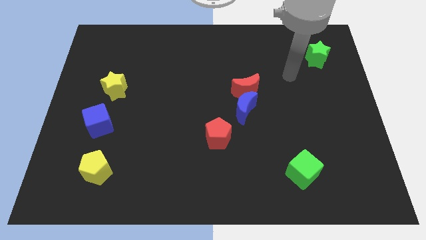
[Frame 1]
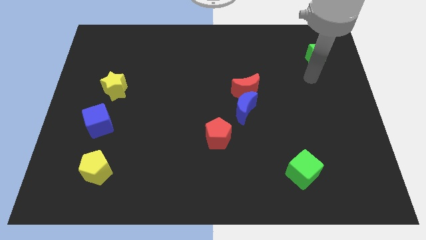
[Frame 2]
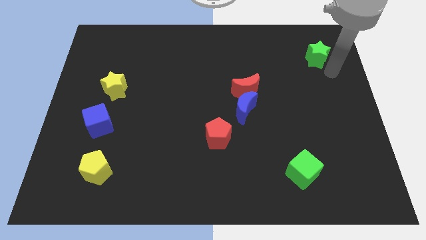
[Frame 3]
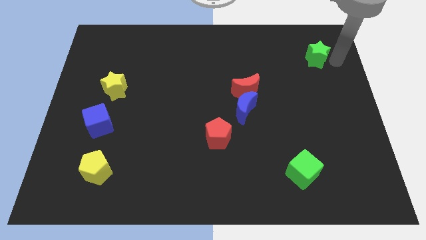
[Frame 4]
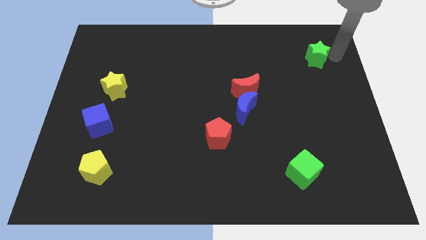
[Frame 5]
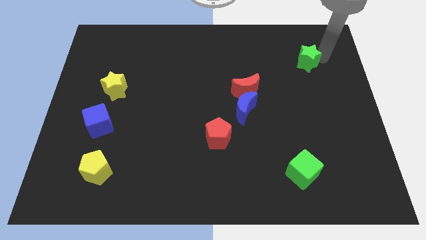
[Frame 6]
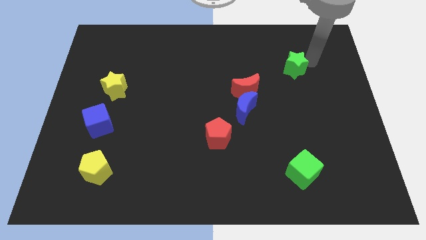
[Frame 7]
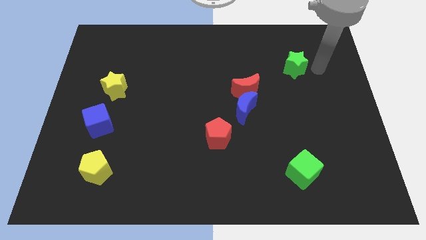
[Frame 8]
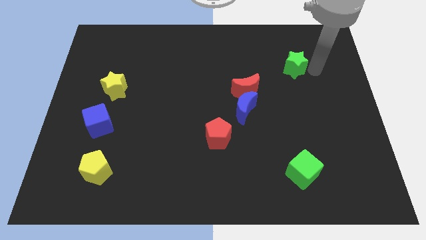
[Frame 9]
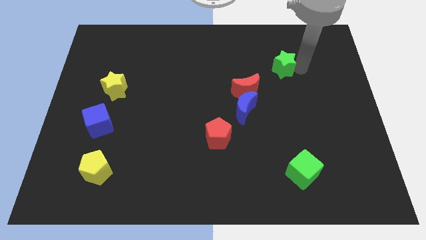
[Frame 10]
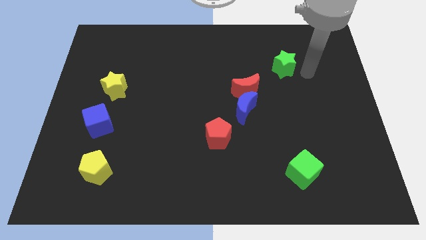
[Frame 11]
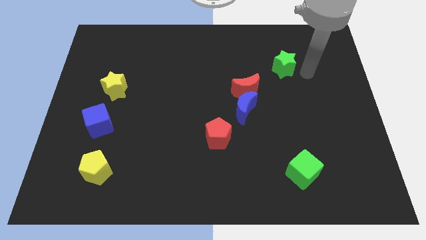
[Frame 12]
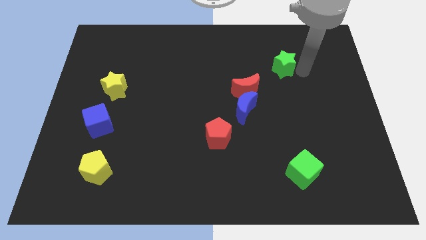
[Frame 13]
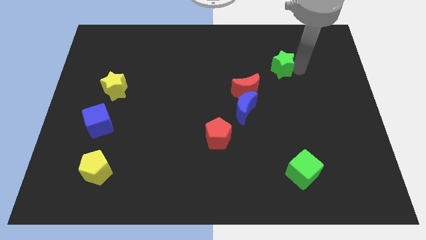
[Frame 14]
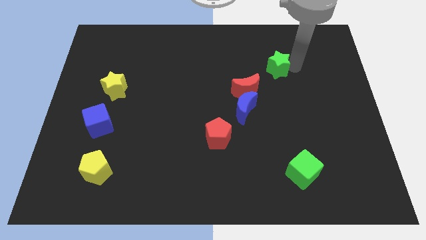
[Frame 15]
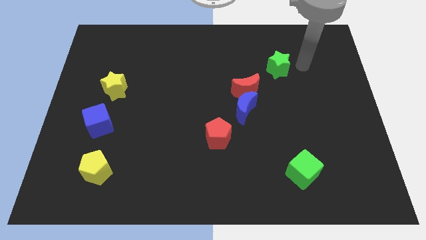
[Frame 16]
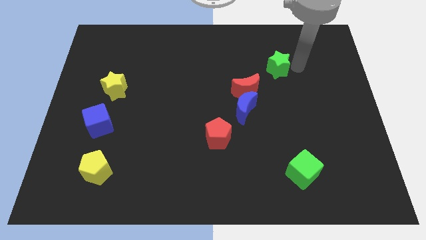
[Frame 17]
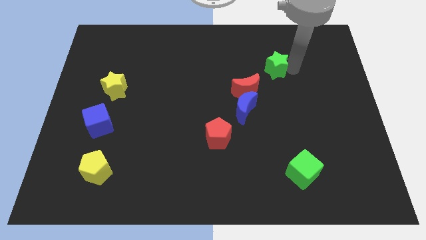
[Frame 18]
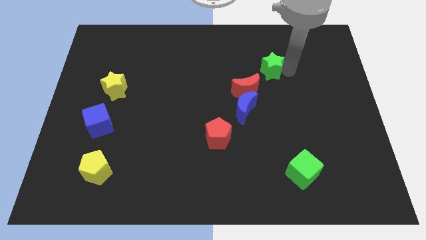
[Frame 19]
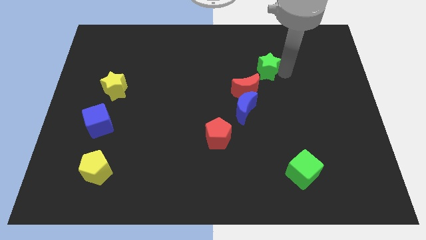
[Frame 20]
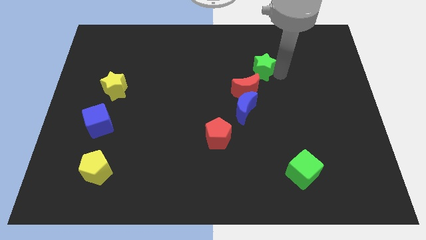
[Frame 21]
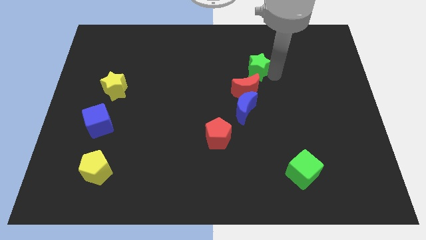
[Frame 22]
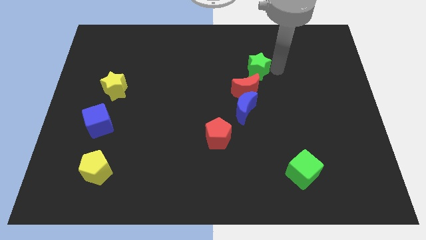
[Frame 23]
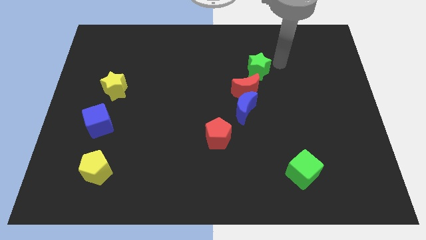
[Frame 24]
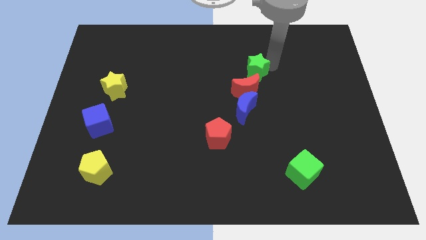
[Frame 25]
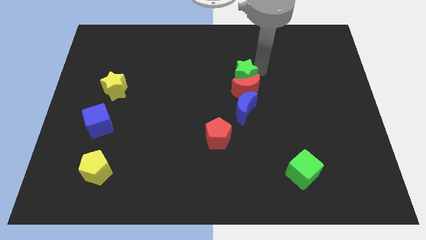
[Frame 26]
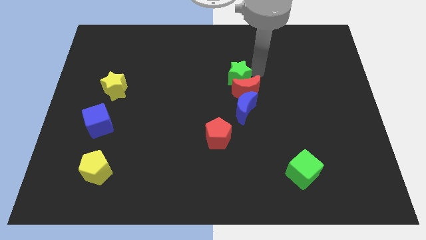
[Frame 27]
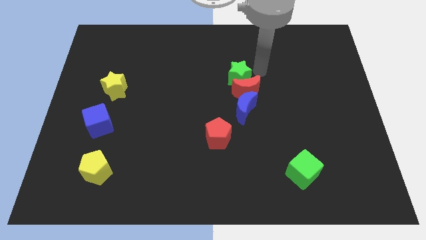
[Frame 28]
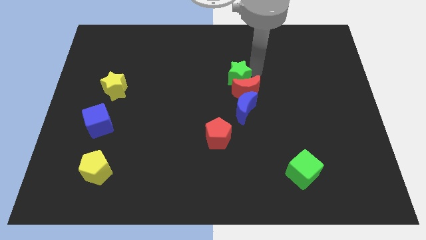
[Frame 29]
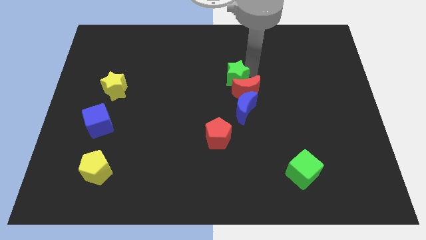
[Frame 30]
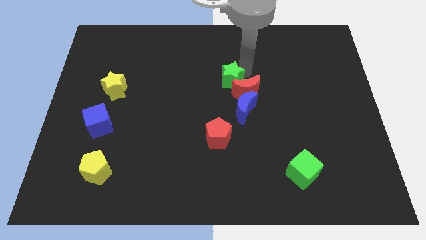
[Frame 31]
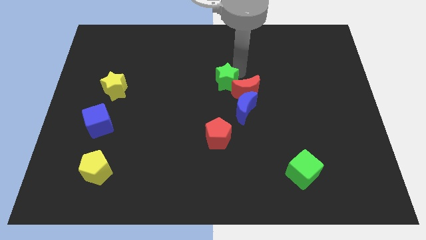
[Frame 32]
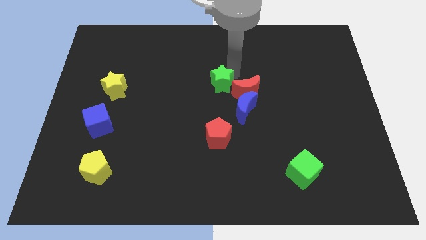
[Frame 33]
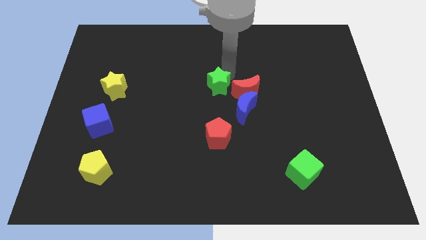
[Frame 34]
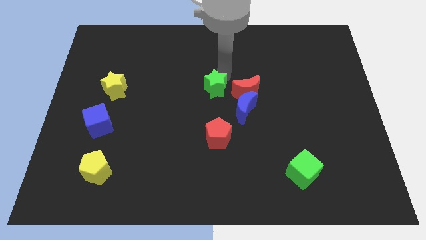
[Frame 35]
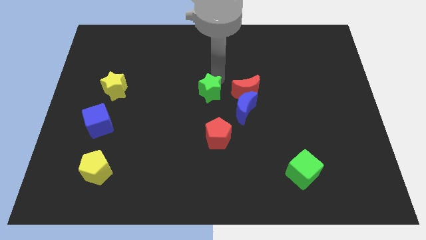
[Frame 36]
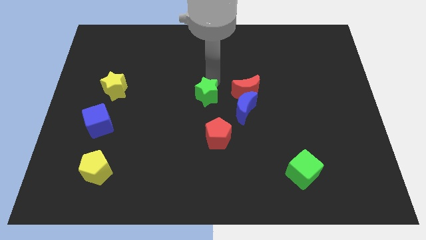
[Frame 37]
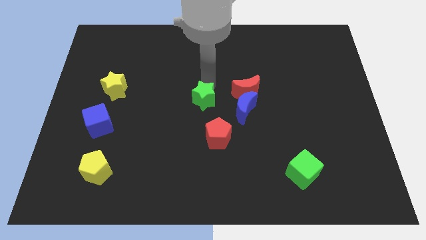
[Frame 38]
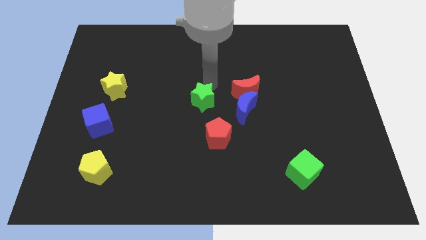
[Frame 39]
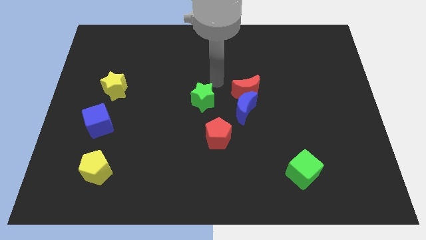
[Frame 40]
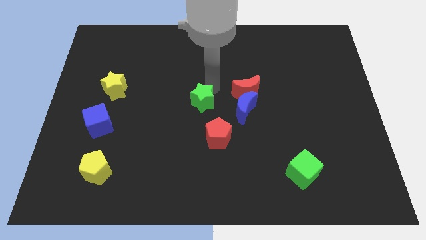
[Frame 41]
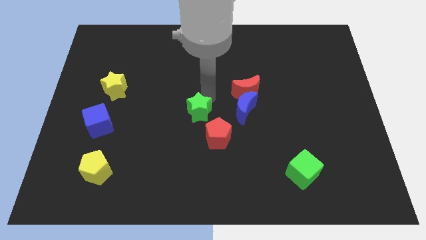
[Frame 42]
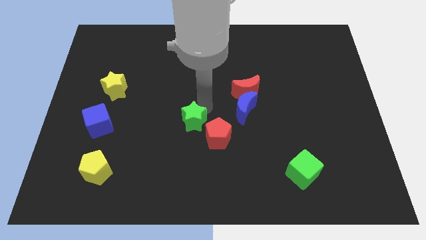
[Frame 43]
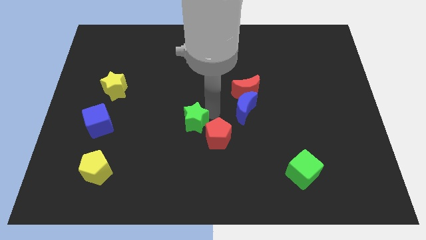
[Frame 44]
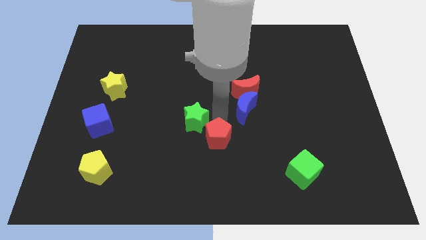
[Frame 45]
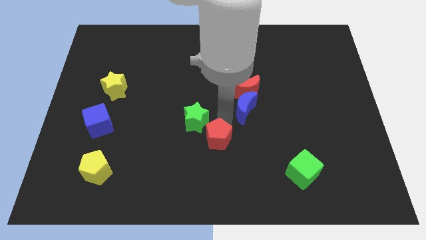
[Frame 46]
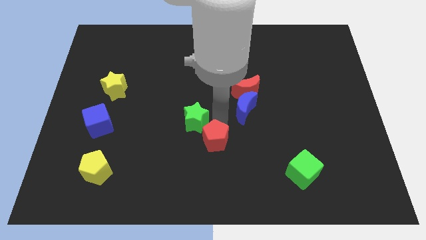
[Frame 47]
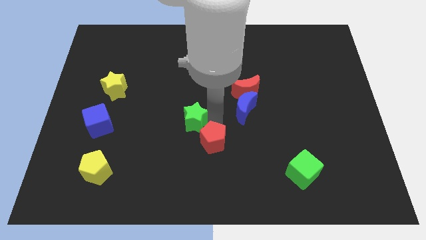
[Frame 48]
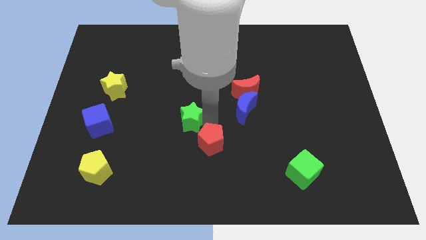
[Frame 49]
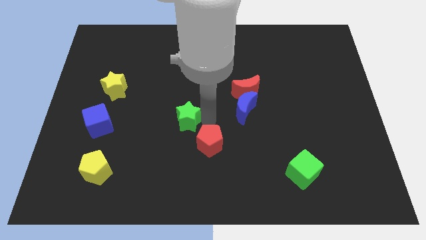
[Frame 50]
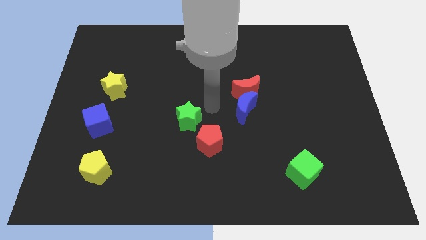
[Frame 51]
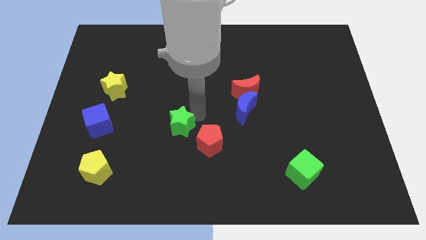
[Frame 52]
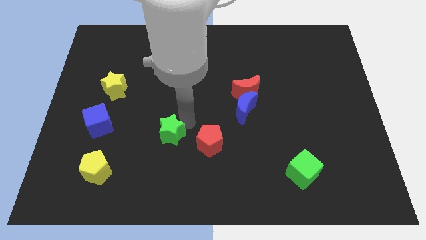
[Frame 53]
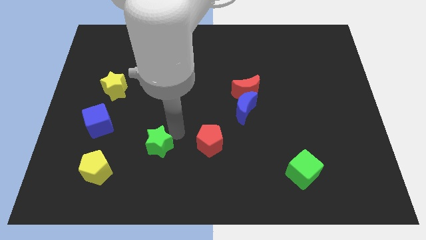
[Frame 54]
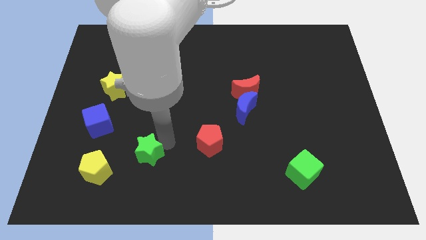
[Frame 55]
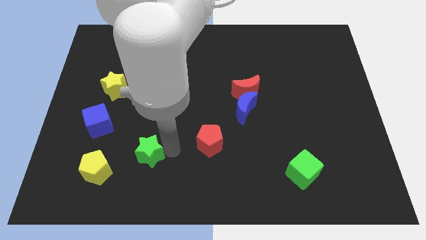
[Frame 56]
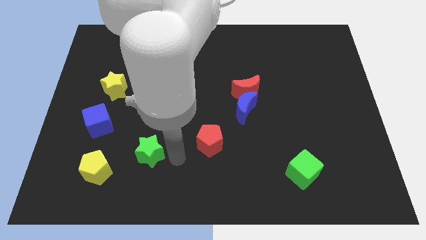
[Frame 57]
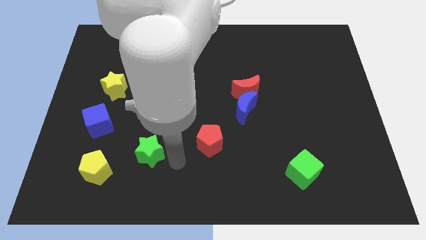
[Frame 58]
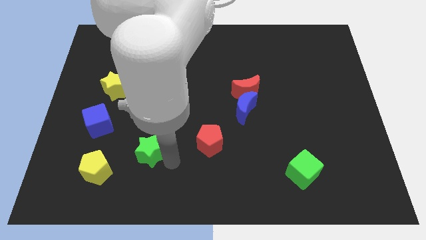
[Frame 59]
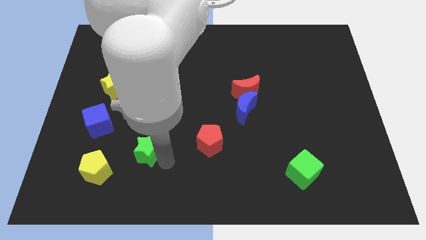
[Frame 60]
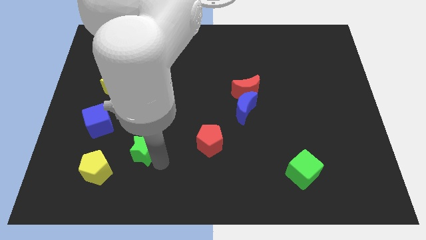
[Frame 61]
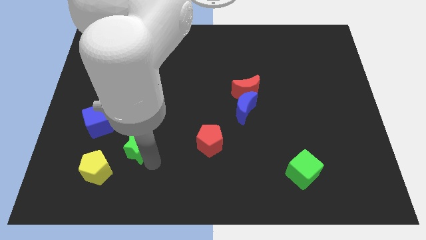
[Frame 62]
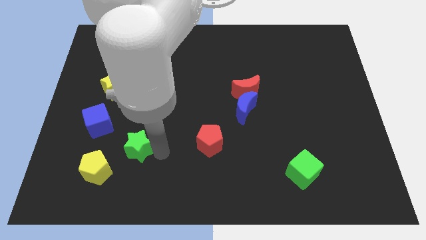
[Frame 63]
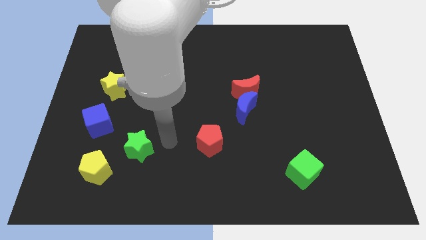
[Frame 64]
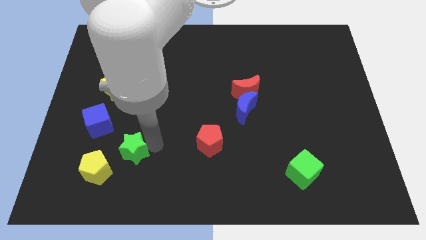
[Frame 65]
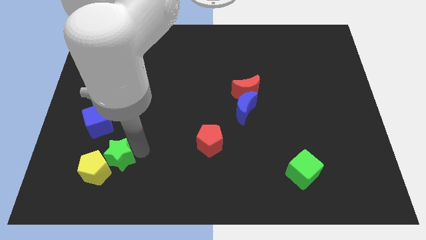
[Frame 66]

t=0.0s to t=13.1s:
put the green star towards the yellow pentagon

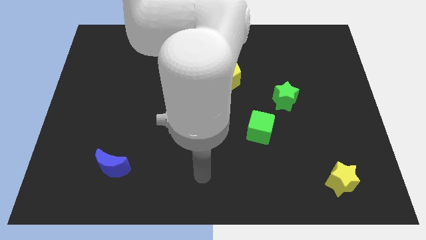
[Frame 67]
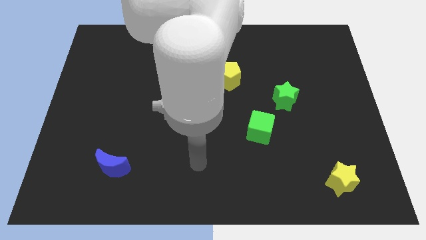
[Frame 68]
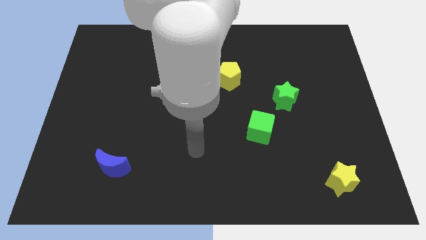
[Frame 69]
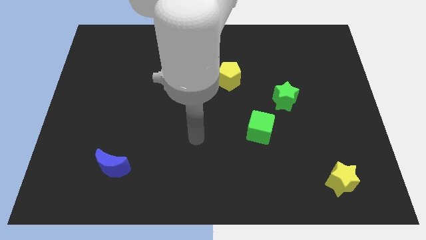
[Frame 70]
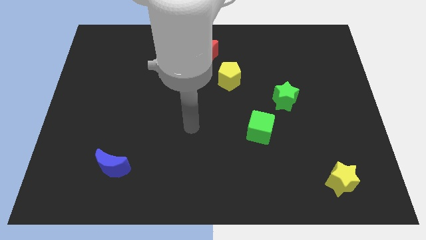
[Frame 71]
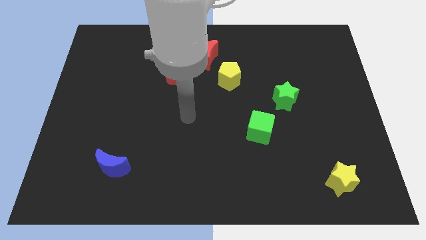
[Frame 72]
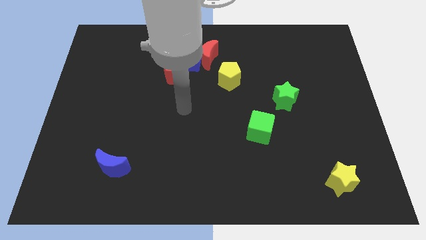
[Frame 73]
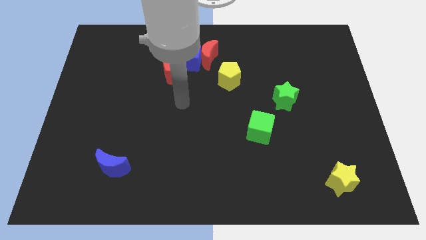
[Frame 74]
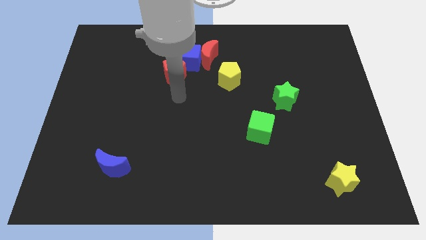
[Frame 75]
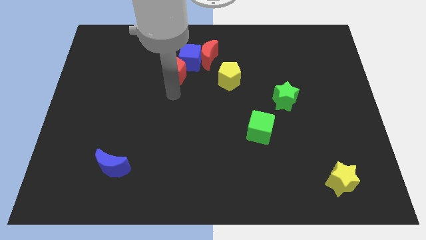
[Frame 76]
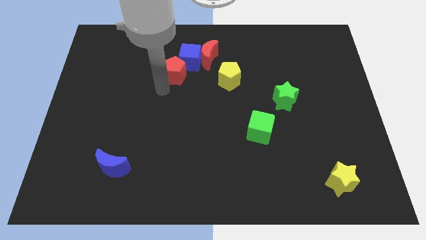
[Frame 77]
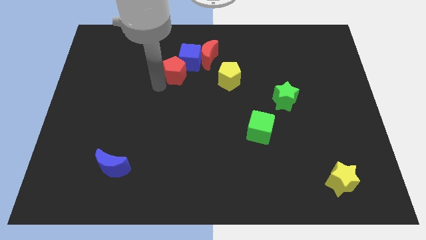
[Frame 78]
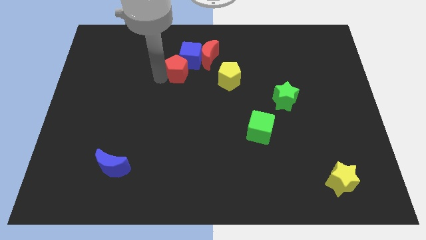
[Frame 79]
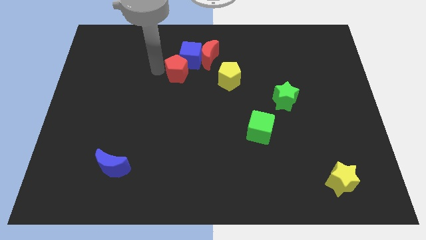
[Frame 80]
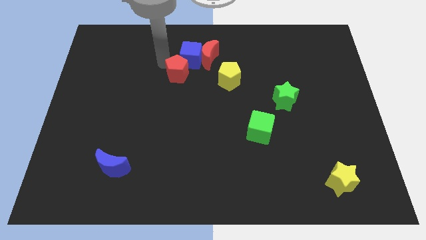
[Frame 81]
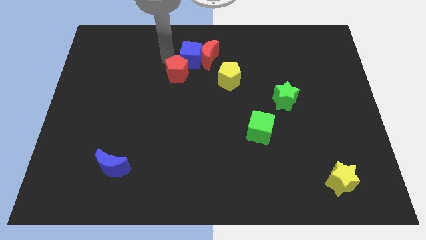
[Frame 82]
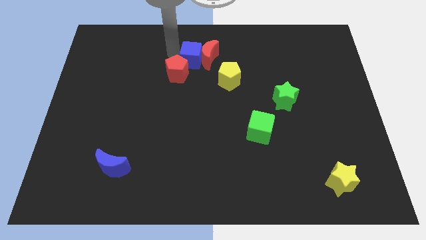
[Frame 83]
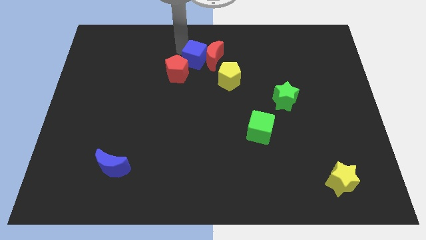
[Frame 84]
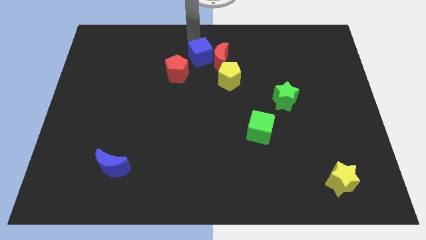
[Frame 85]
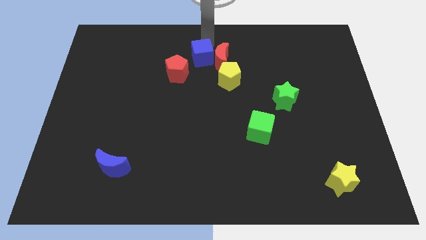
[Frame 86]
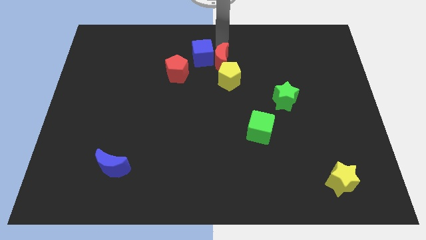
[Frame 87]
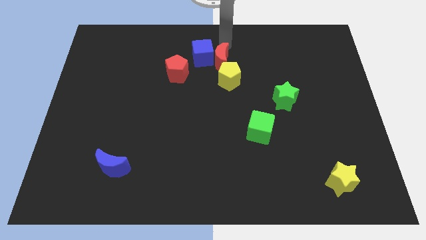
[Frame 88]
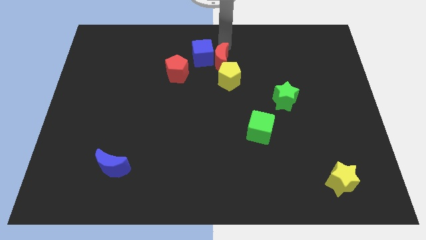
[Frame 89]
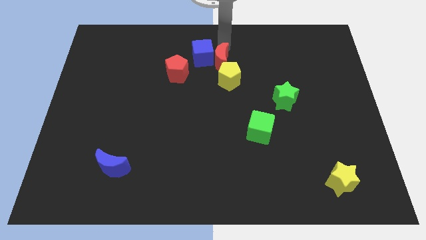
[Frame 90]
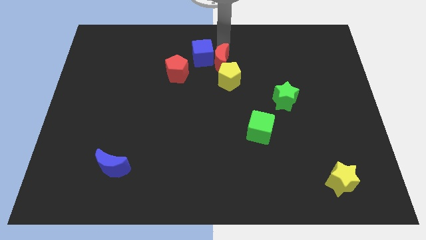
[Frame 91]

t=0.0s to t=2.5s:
slide the red moon to the yellow pentagon
